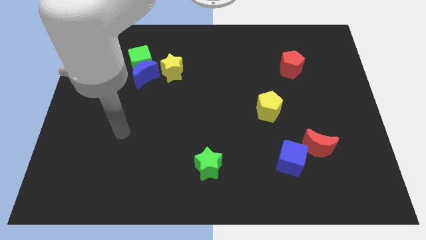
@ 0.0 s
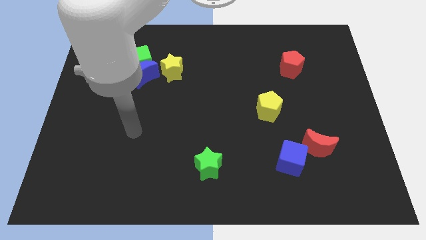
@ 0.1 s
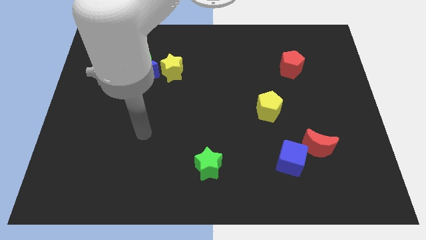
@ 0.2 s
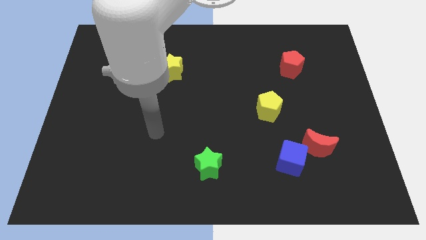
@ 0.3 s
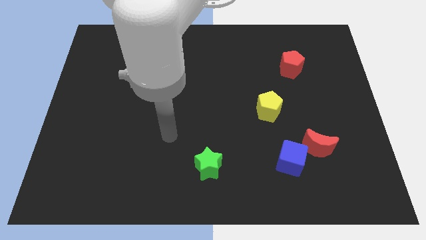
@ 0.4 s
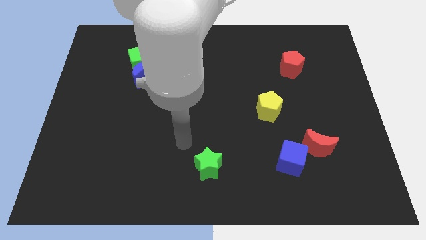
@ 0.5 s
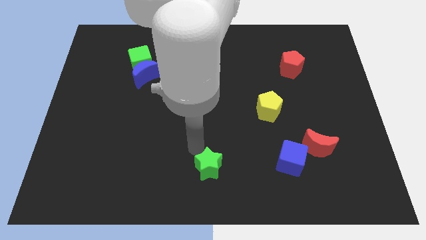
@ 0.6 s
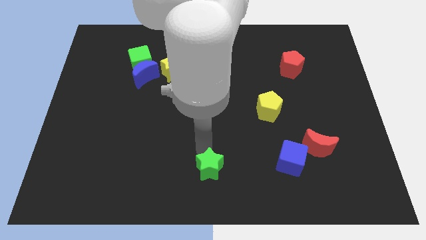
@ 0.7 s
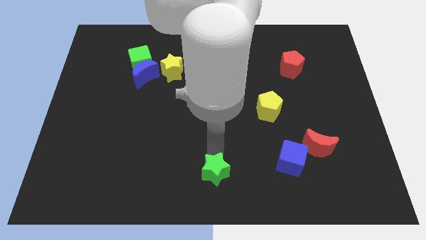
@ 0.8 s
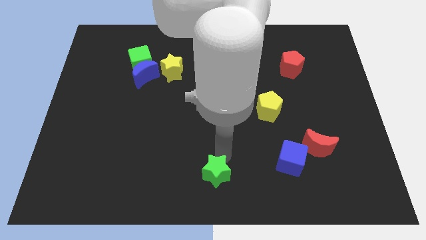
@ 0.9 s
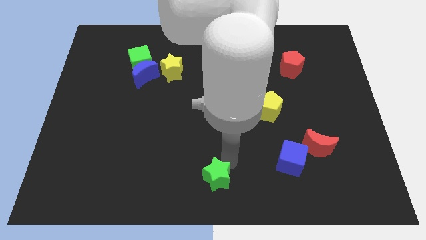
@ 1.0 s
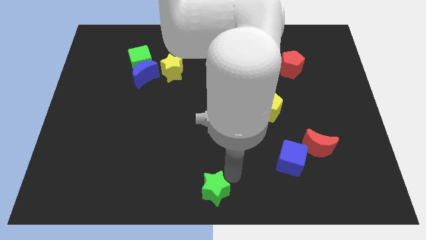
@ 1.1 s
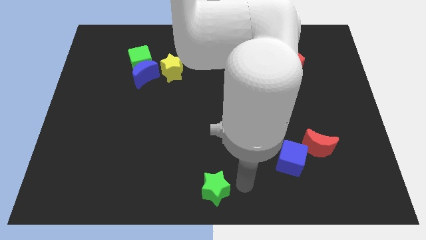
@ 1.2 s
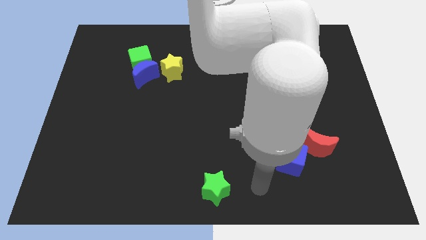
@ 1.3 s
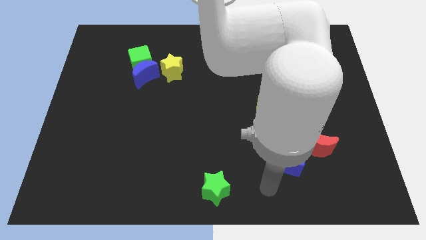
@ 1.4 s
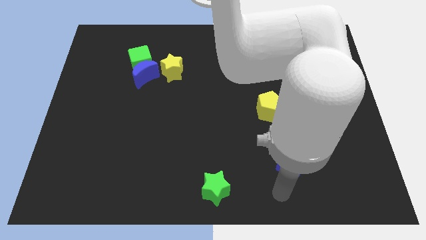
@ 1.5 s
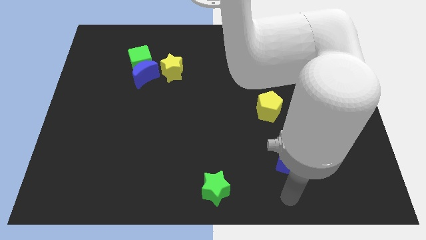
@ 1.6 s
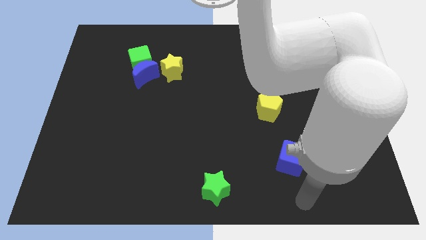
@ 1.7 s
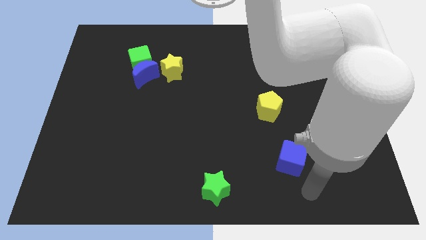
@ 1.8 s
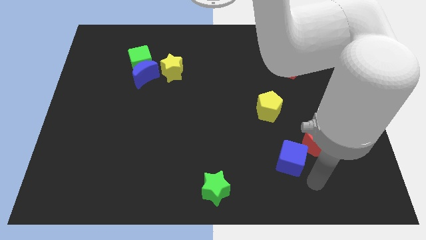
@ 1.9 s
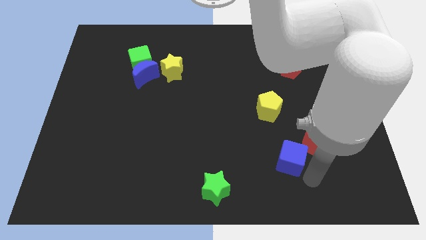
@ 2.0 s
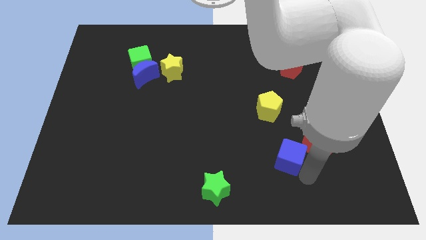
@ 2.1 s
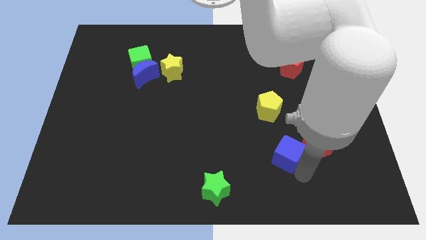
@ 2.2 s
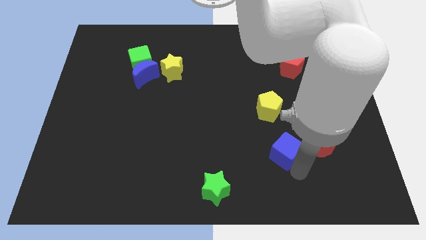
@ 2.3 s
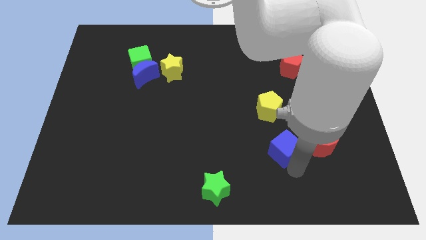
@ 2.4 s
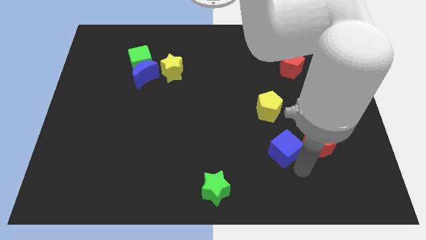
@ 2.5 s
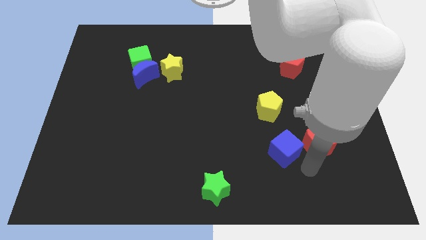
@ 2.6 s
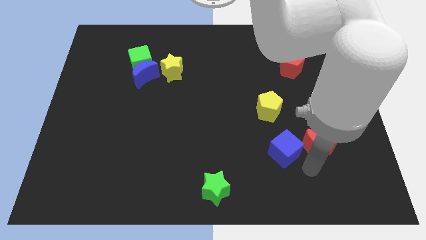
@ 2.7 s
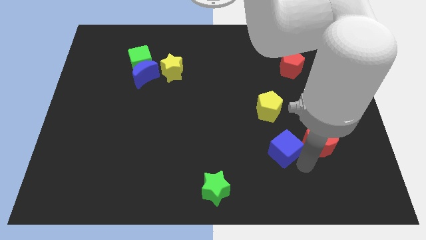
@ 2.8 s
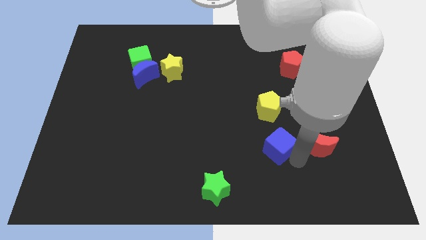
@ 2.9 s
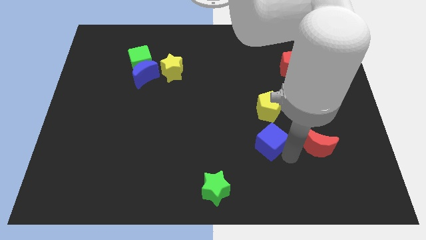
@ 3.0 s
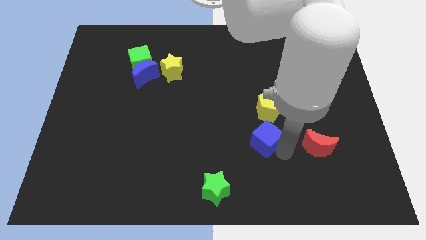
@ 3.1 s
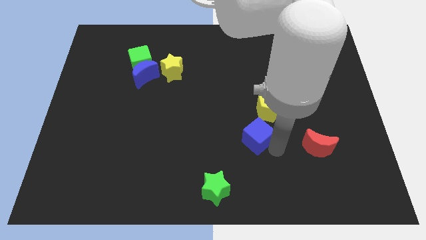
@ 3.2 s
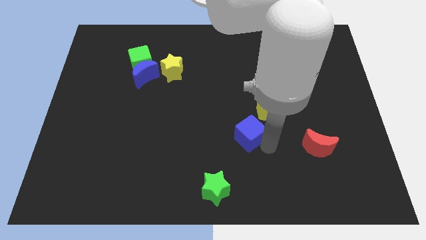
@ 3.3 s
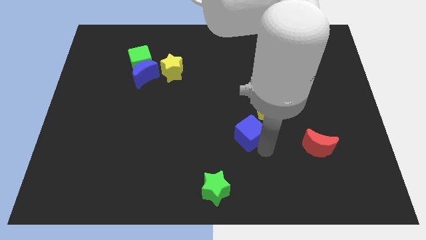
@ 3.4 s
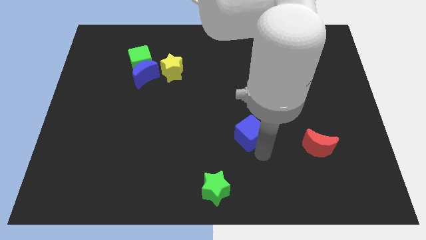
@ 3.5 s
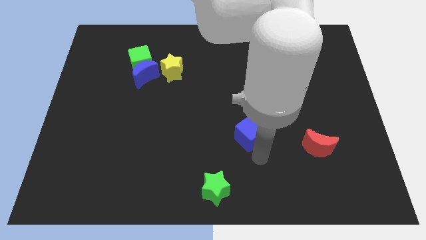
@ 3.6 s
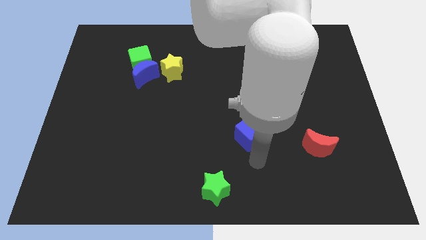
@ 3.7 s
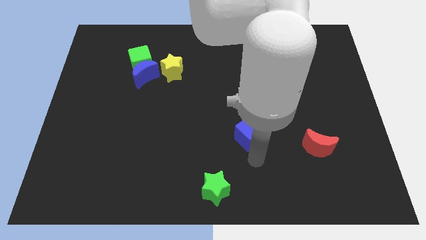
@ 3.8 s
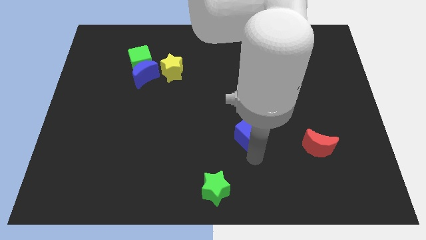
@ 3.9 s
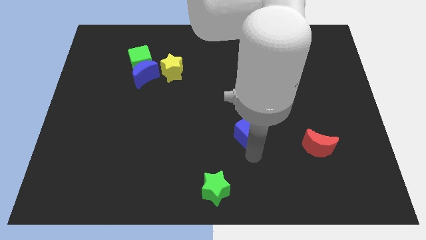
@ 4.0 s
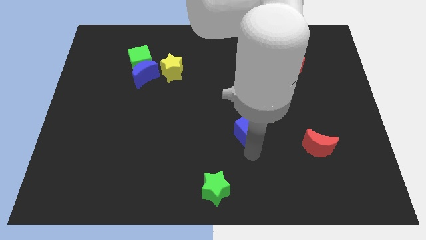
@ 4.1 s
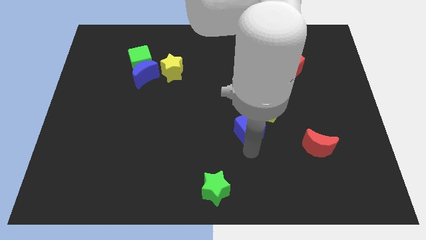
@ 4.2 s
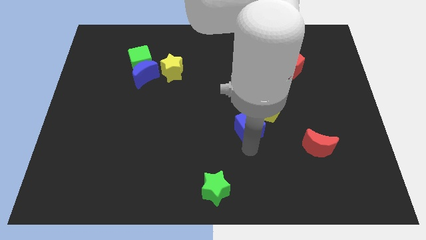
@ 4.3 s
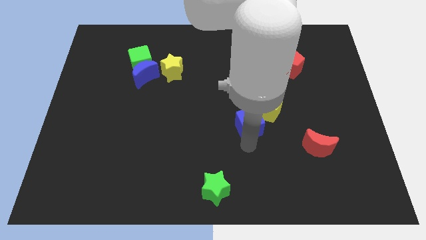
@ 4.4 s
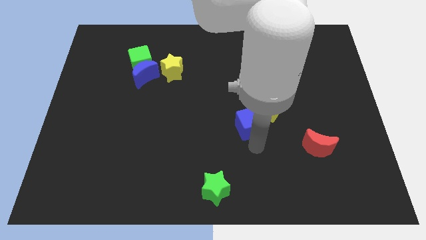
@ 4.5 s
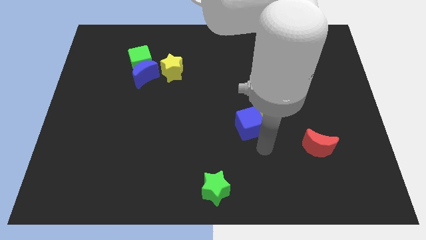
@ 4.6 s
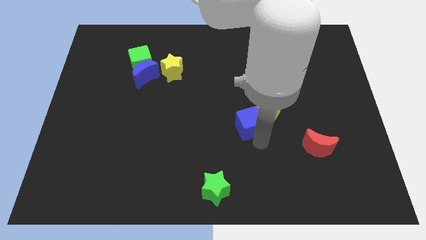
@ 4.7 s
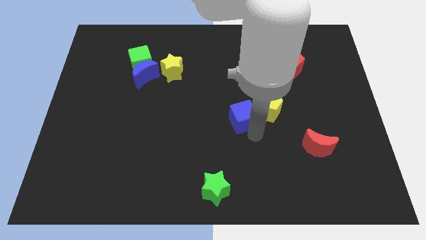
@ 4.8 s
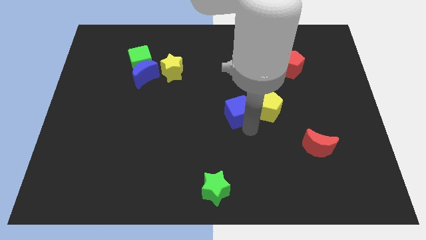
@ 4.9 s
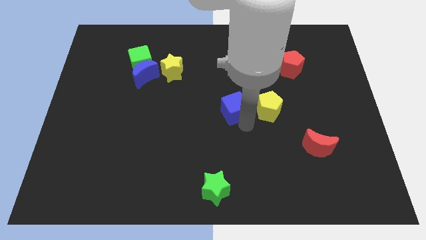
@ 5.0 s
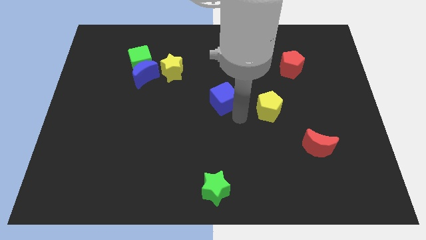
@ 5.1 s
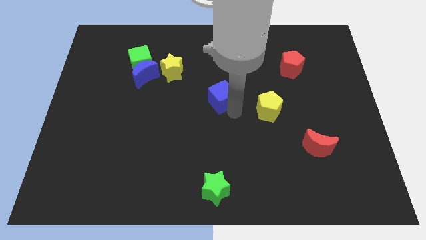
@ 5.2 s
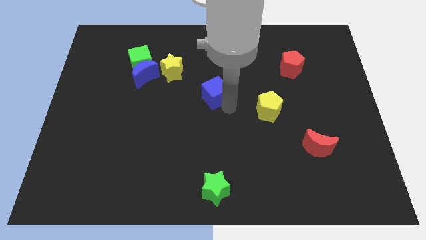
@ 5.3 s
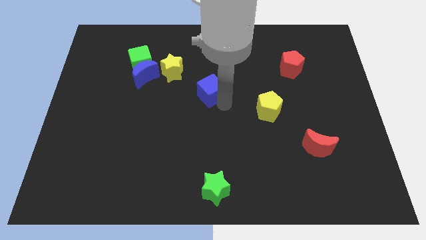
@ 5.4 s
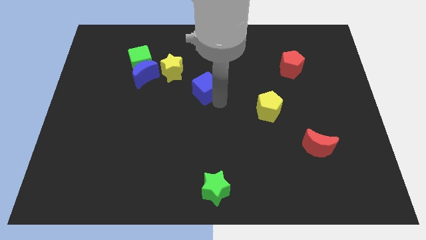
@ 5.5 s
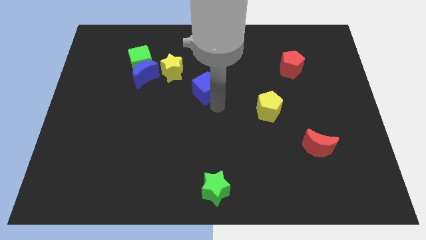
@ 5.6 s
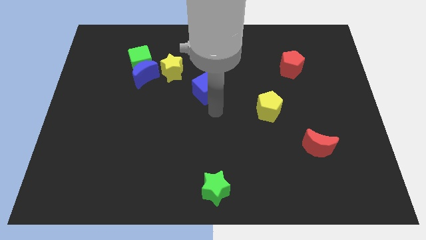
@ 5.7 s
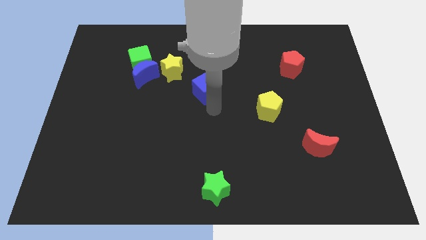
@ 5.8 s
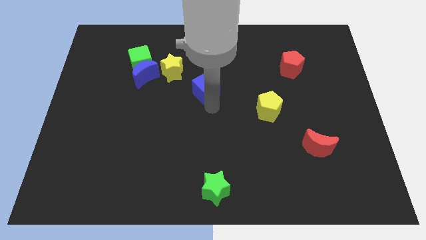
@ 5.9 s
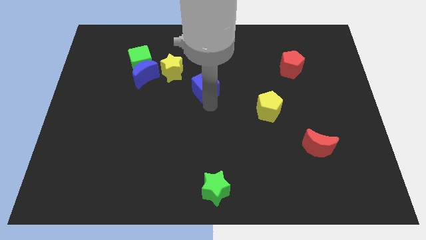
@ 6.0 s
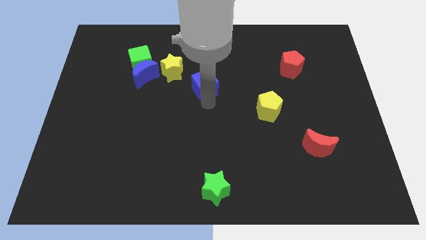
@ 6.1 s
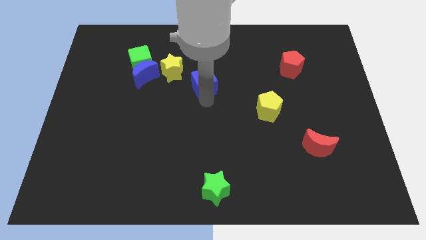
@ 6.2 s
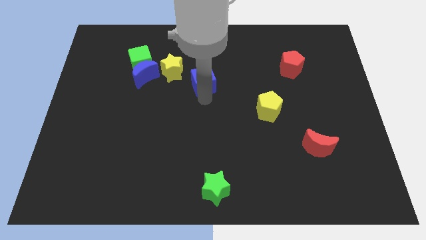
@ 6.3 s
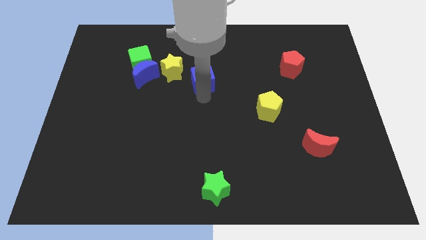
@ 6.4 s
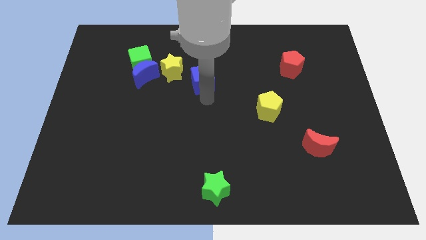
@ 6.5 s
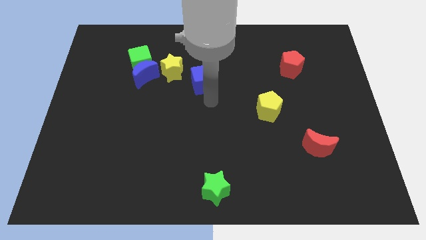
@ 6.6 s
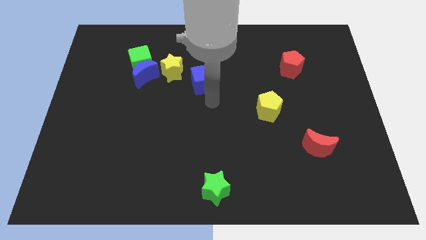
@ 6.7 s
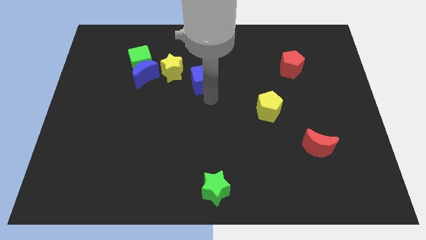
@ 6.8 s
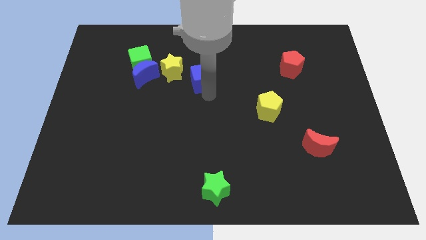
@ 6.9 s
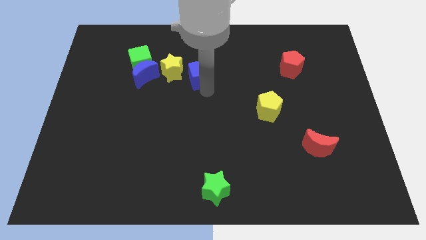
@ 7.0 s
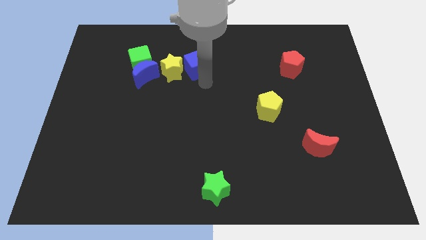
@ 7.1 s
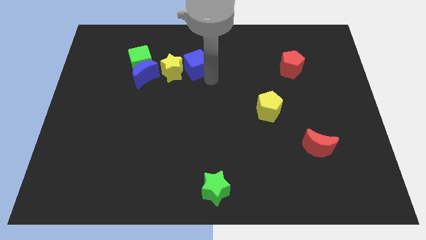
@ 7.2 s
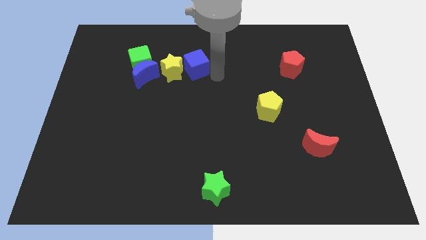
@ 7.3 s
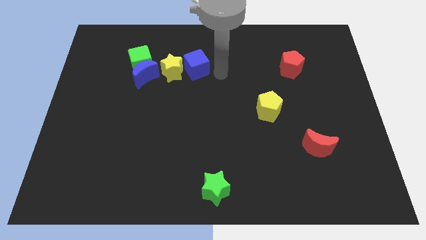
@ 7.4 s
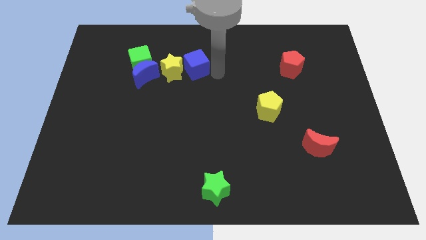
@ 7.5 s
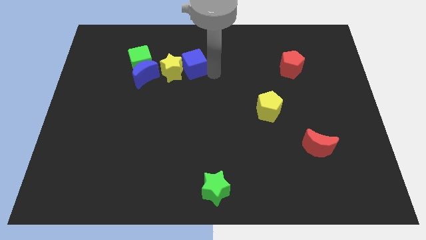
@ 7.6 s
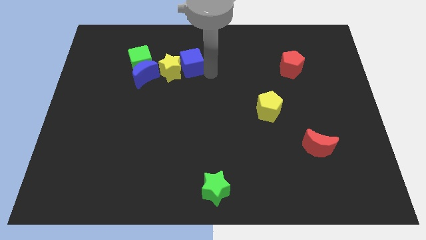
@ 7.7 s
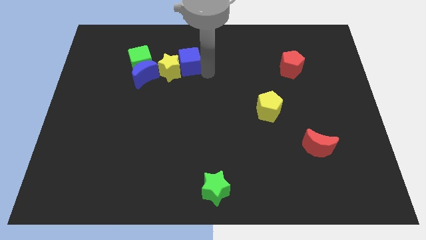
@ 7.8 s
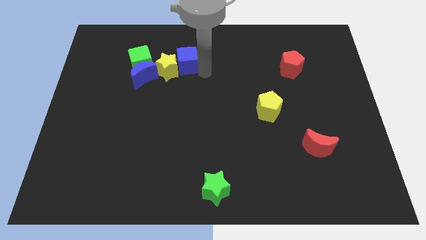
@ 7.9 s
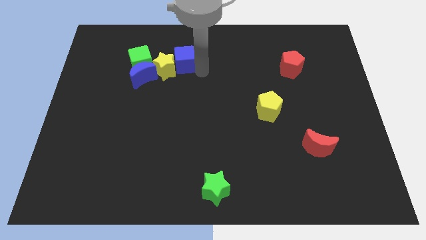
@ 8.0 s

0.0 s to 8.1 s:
move the blue cube diagonally up and to the right of the blue moon
